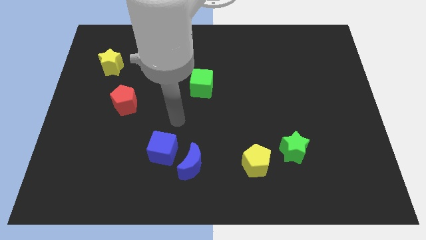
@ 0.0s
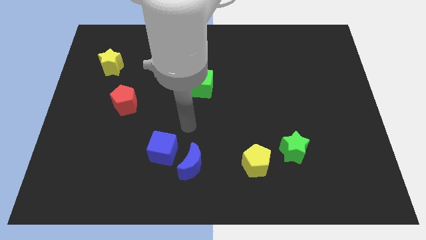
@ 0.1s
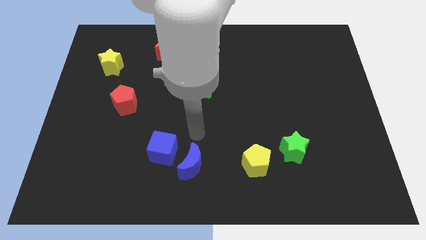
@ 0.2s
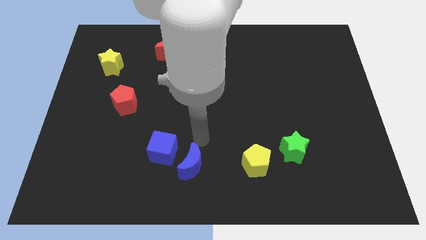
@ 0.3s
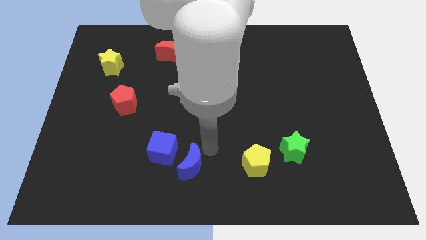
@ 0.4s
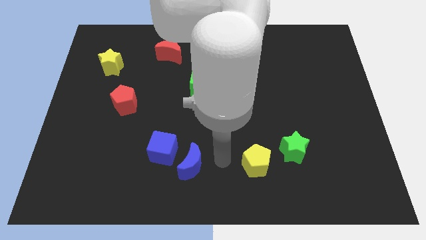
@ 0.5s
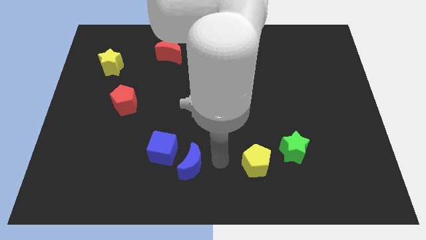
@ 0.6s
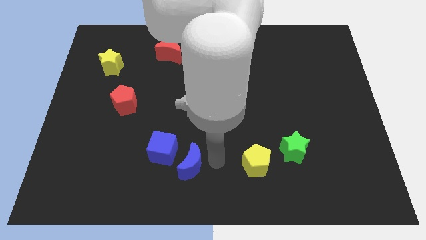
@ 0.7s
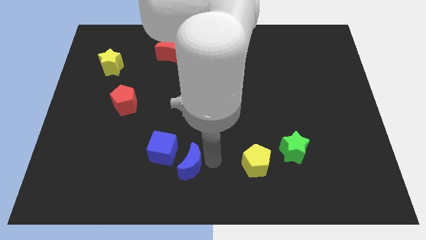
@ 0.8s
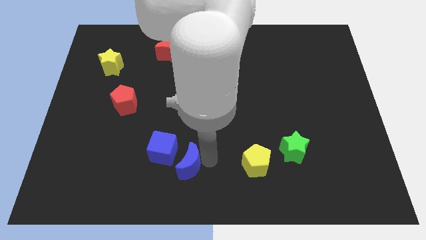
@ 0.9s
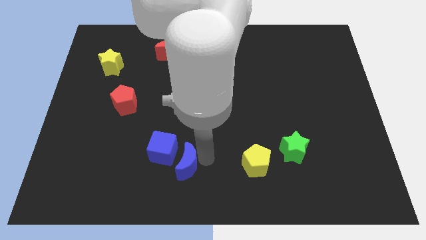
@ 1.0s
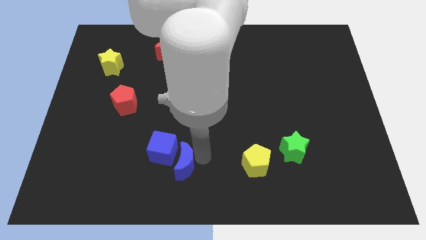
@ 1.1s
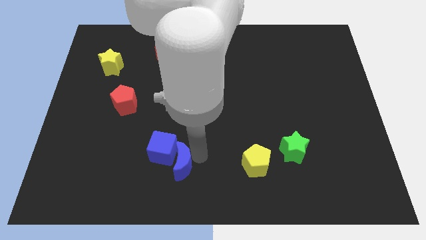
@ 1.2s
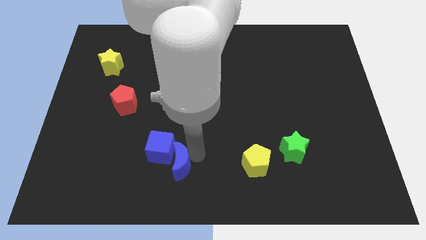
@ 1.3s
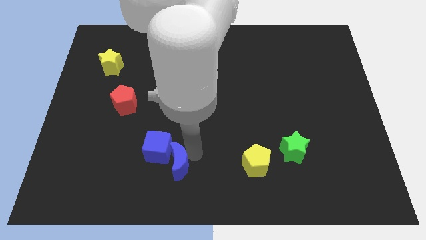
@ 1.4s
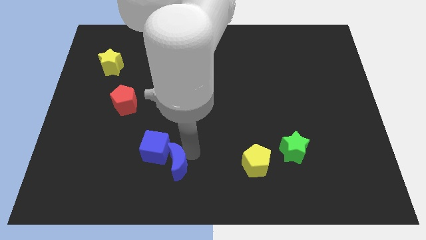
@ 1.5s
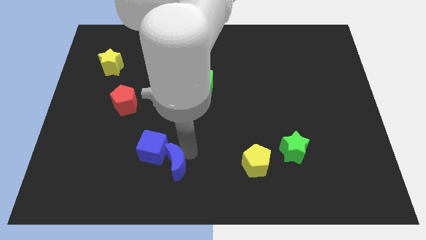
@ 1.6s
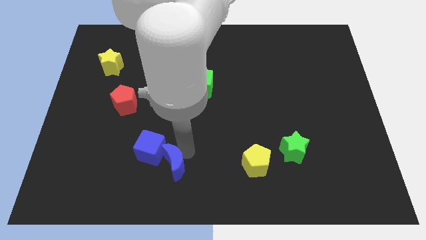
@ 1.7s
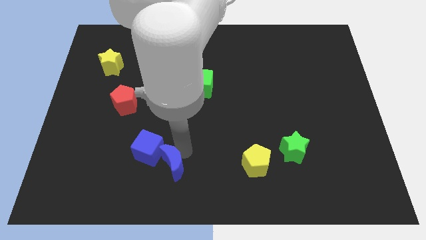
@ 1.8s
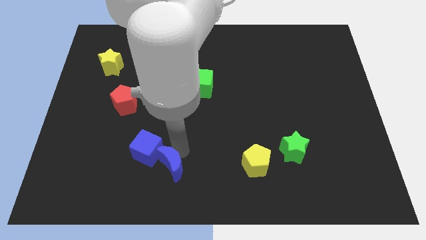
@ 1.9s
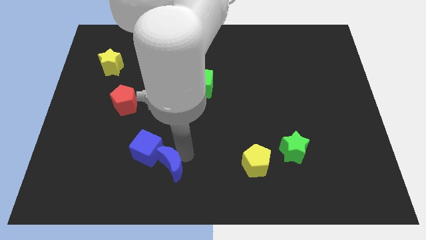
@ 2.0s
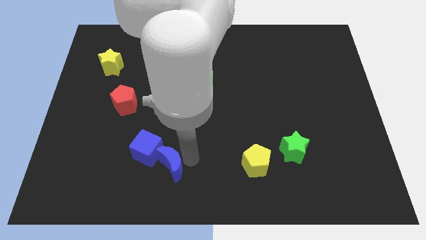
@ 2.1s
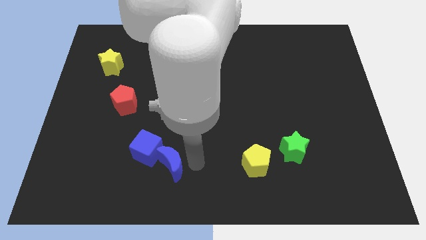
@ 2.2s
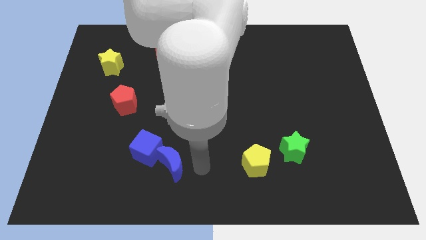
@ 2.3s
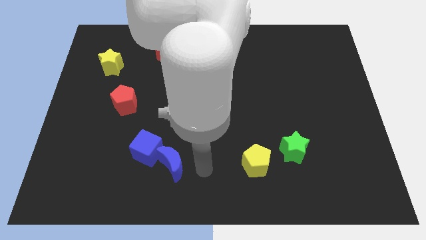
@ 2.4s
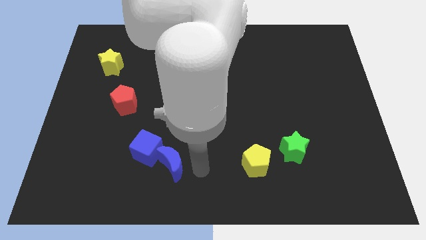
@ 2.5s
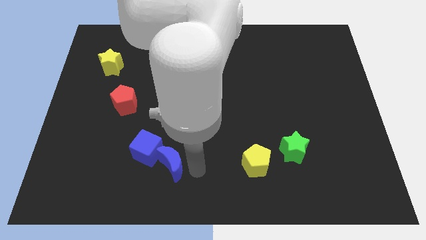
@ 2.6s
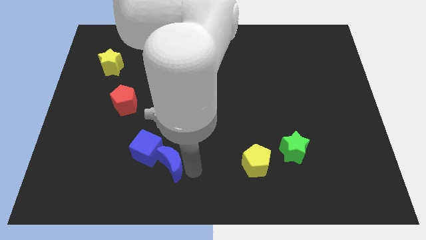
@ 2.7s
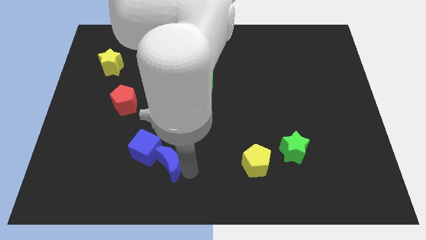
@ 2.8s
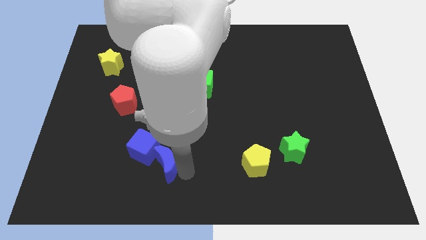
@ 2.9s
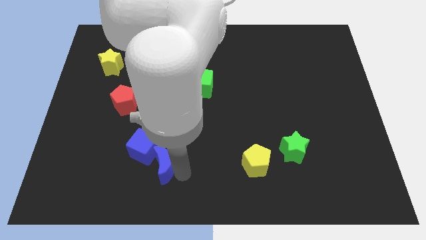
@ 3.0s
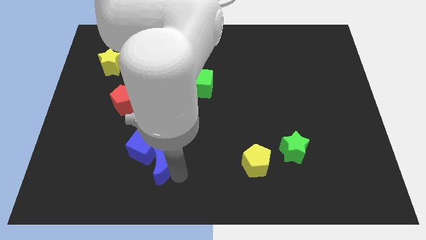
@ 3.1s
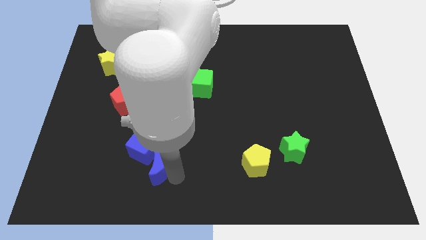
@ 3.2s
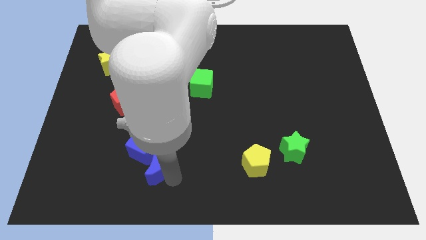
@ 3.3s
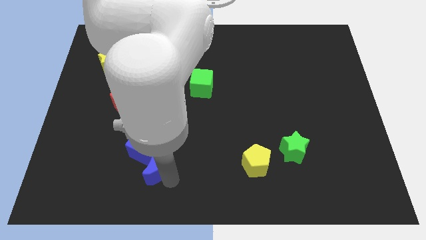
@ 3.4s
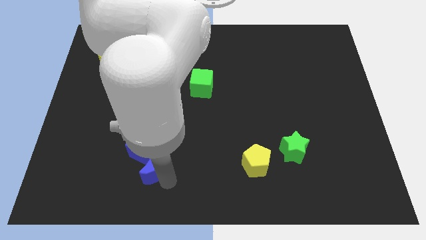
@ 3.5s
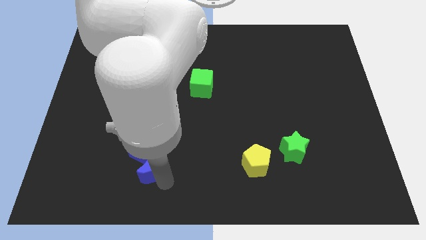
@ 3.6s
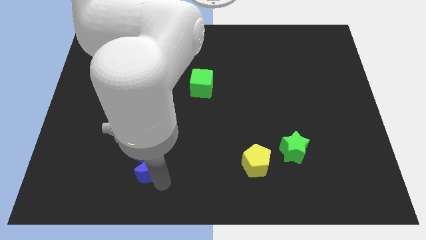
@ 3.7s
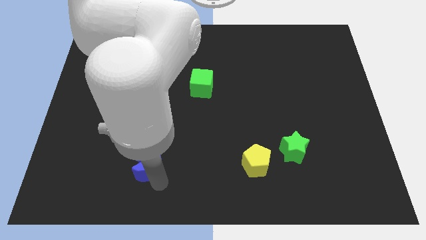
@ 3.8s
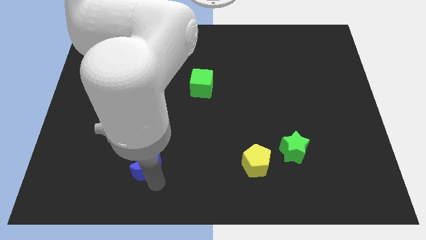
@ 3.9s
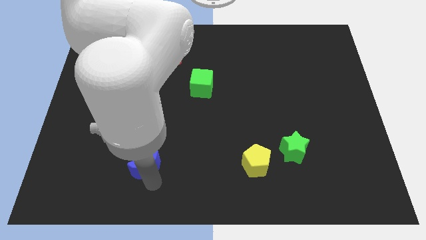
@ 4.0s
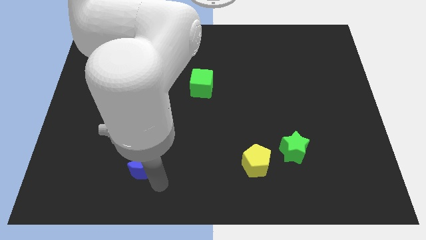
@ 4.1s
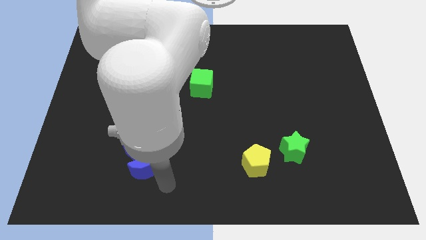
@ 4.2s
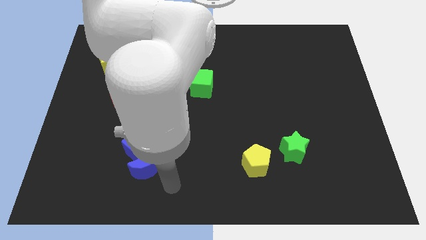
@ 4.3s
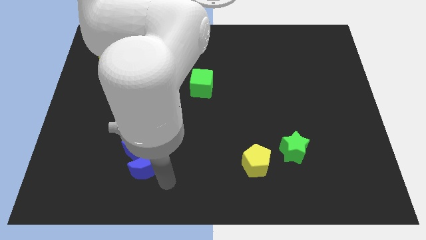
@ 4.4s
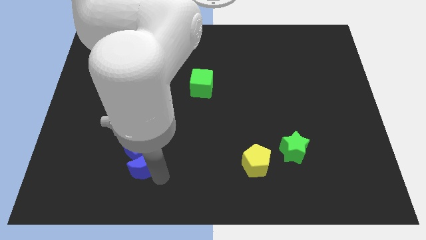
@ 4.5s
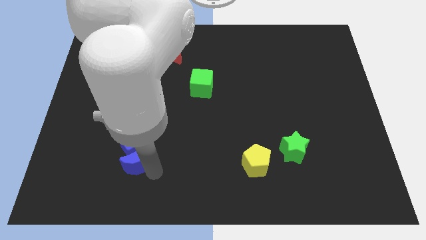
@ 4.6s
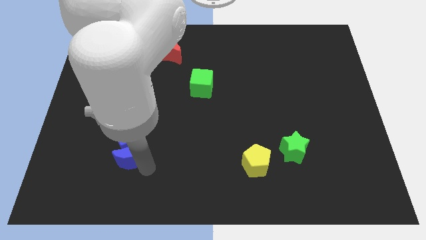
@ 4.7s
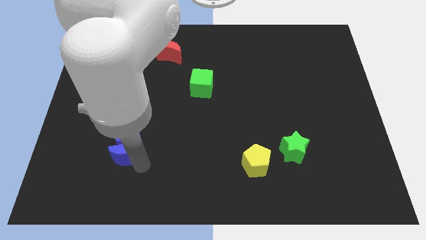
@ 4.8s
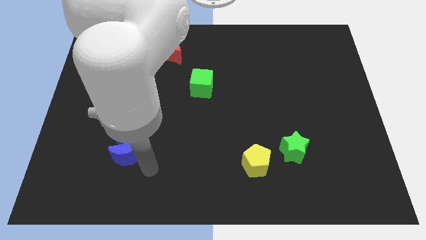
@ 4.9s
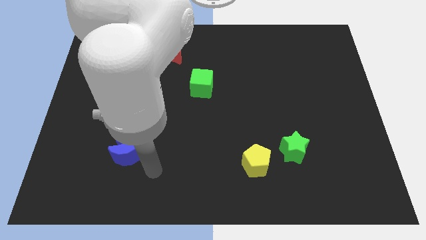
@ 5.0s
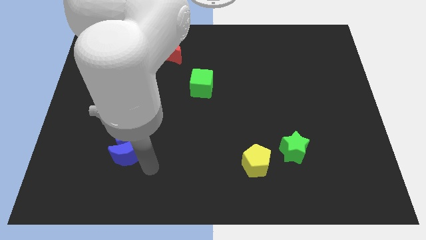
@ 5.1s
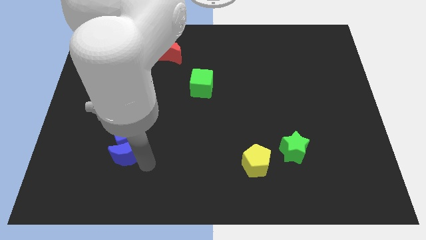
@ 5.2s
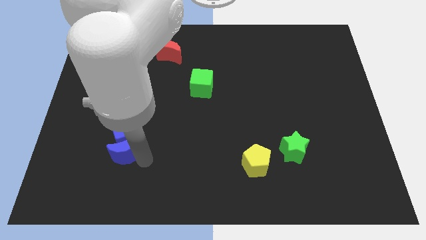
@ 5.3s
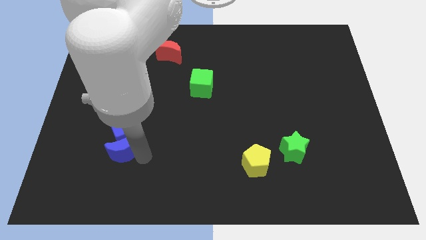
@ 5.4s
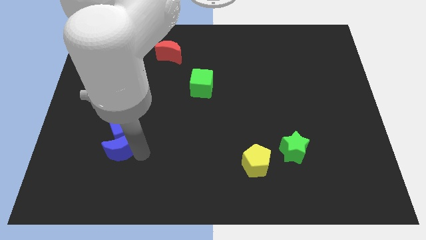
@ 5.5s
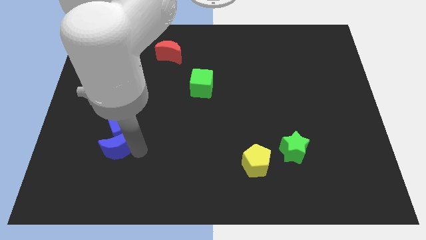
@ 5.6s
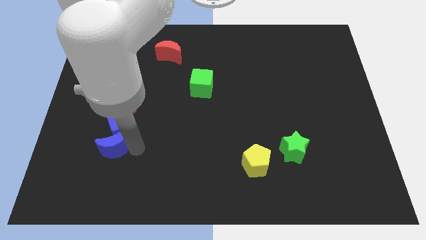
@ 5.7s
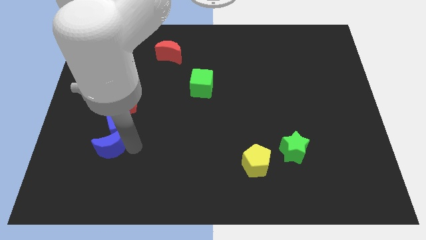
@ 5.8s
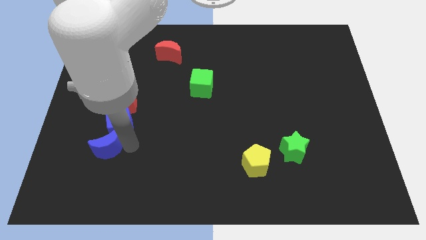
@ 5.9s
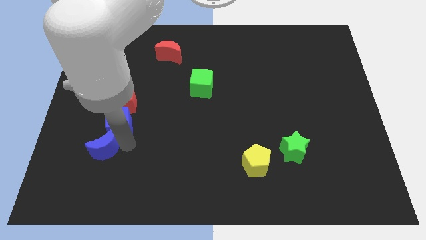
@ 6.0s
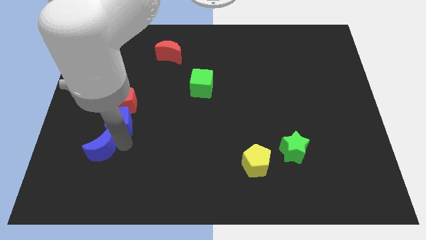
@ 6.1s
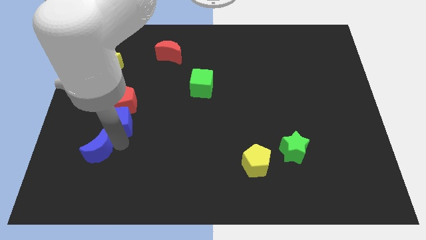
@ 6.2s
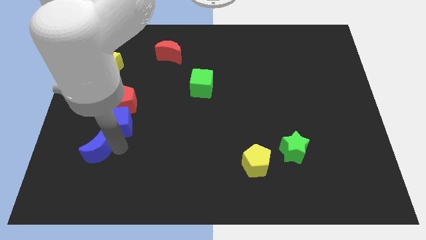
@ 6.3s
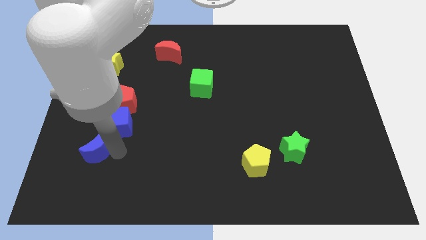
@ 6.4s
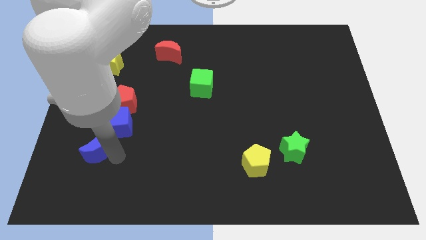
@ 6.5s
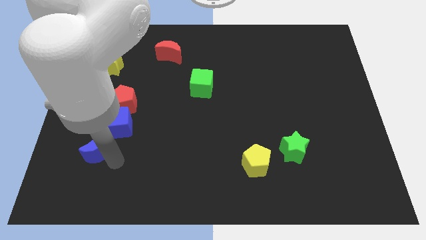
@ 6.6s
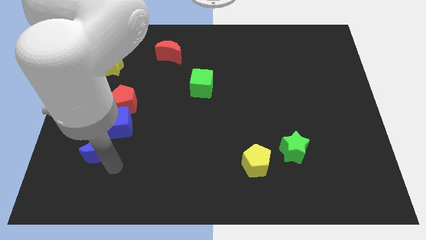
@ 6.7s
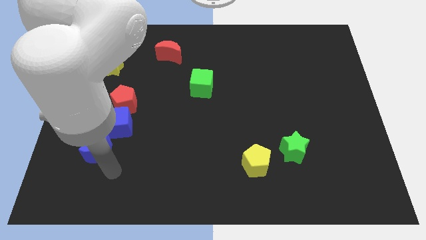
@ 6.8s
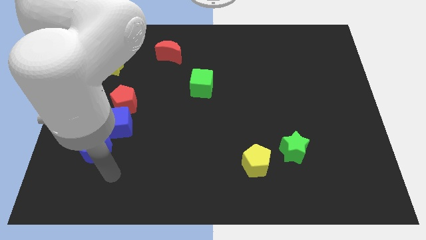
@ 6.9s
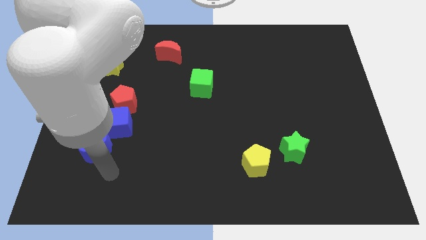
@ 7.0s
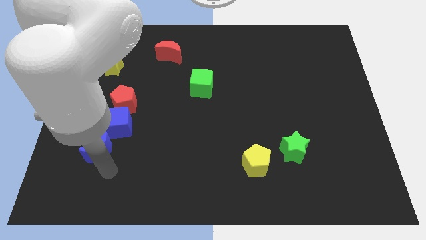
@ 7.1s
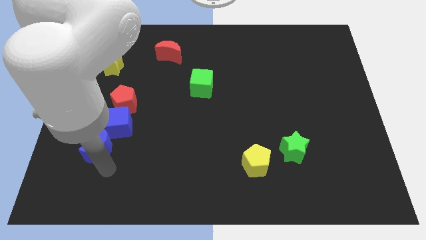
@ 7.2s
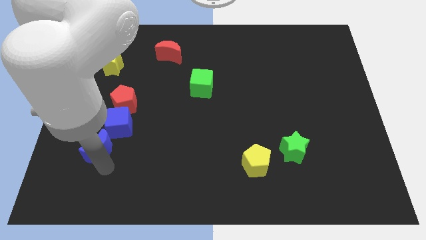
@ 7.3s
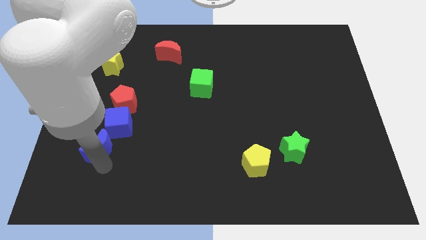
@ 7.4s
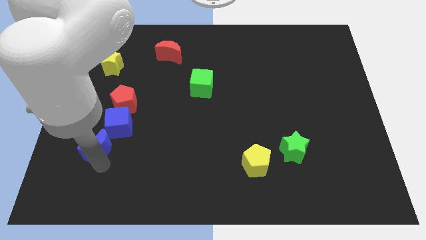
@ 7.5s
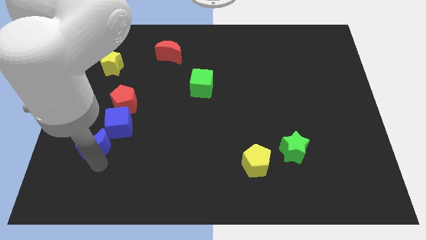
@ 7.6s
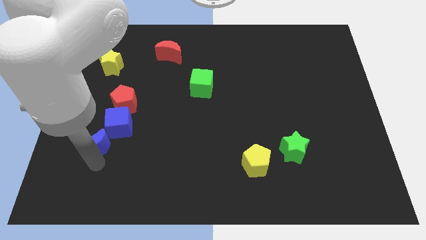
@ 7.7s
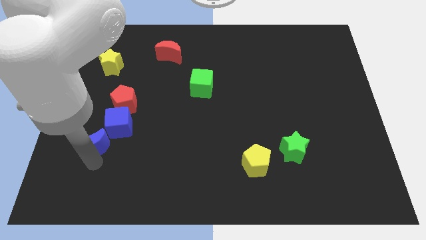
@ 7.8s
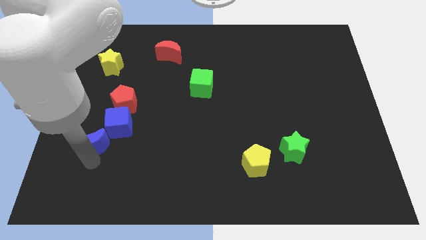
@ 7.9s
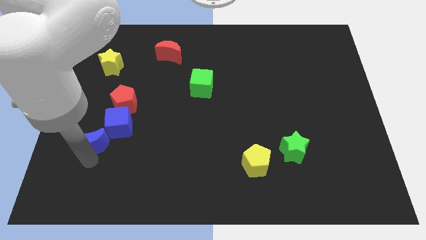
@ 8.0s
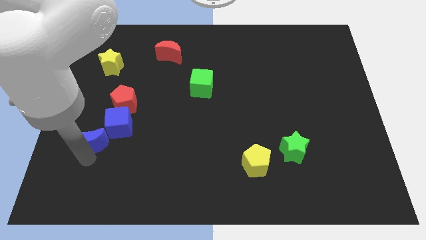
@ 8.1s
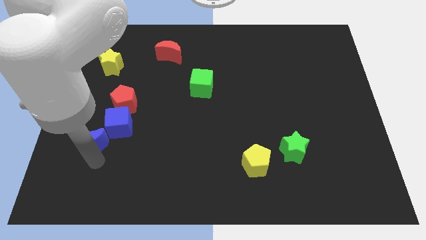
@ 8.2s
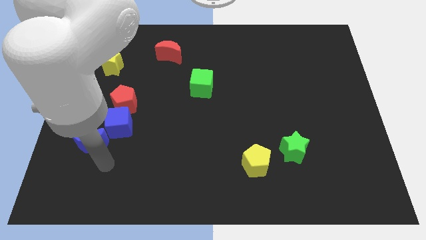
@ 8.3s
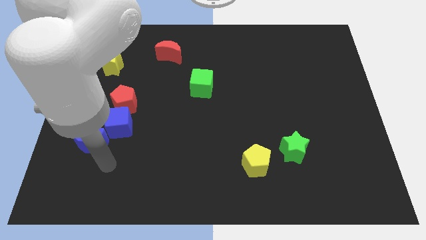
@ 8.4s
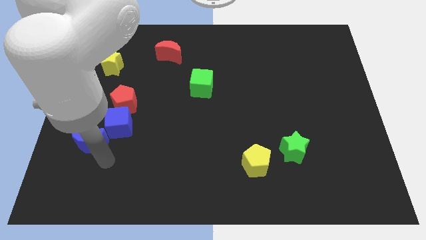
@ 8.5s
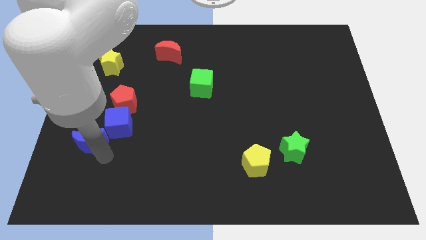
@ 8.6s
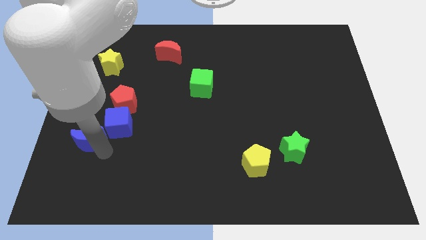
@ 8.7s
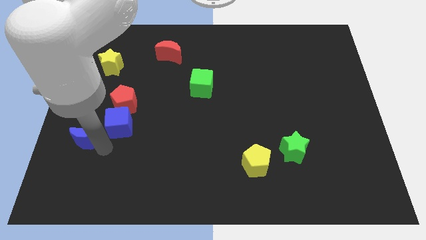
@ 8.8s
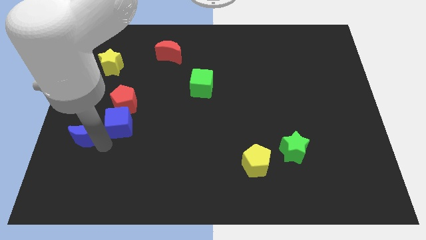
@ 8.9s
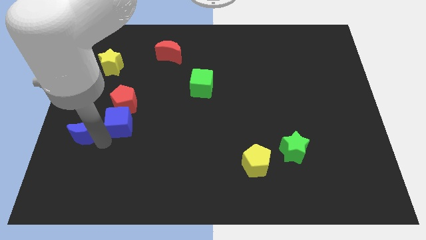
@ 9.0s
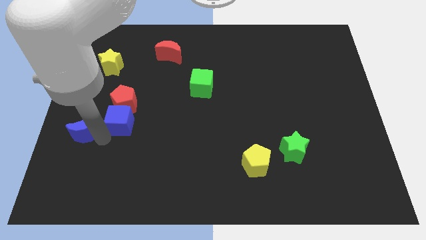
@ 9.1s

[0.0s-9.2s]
move the blue moon to the left side of the board
